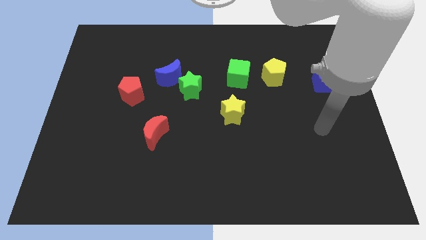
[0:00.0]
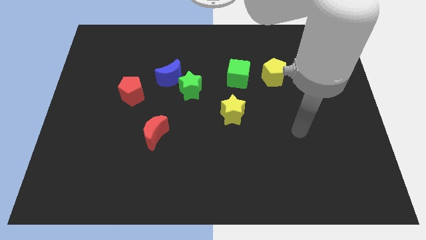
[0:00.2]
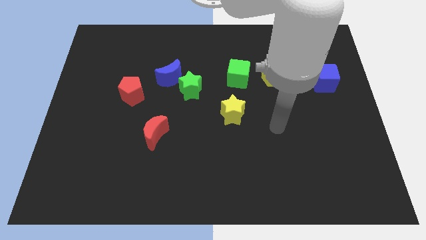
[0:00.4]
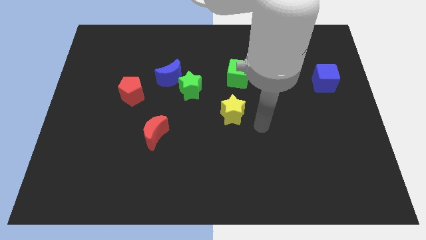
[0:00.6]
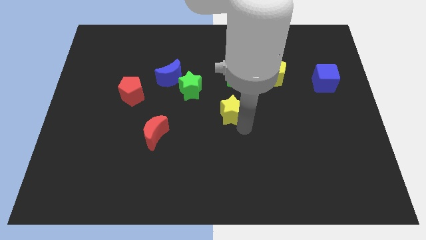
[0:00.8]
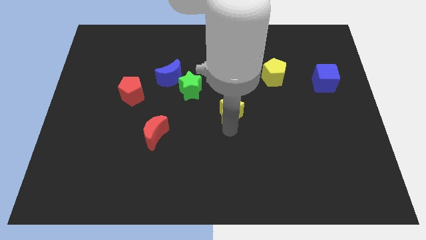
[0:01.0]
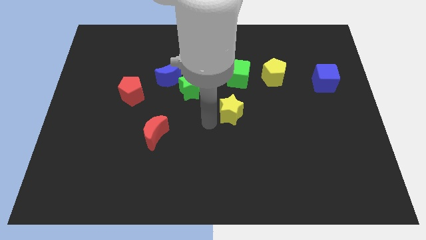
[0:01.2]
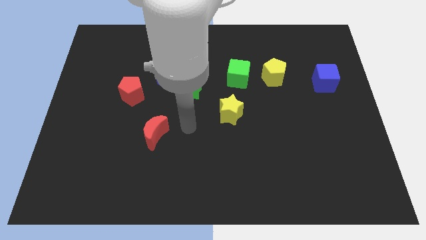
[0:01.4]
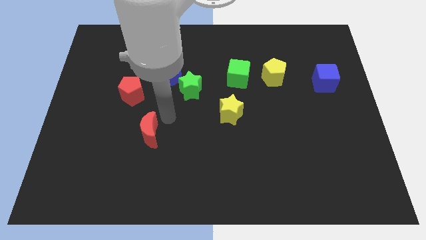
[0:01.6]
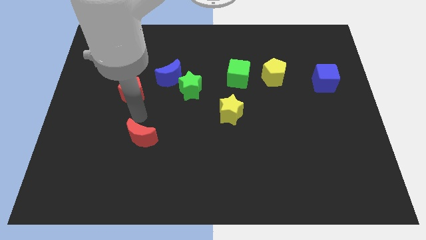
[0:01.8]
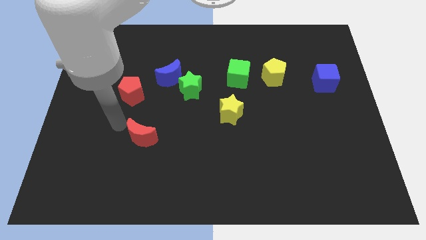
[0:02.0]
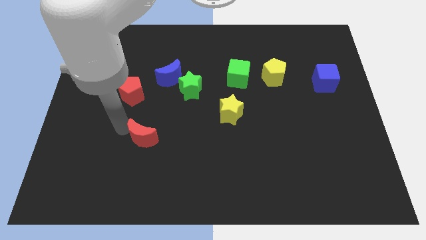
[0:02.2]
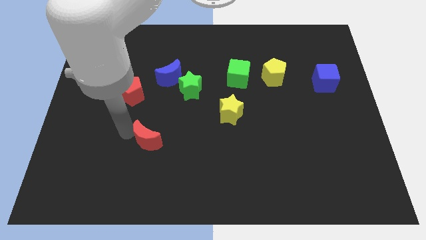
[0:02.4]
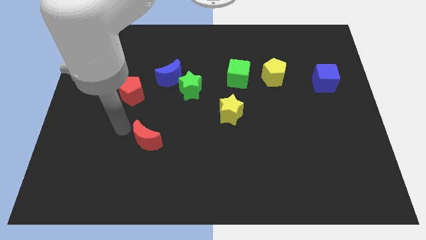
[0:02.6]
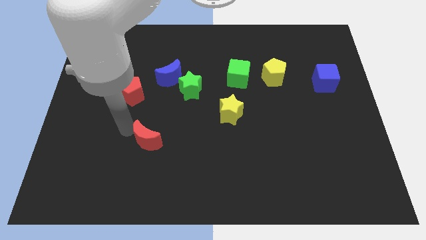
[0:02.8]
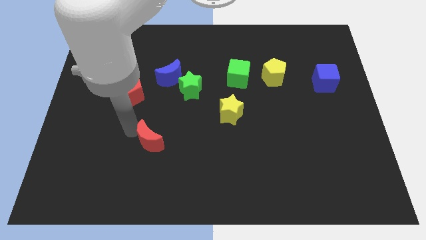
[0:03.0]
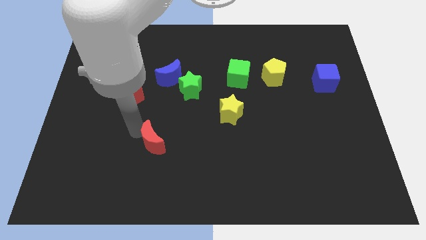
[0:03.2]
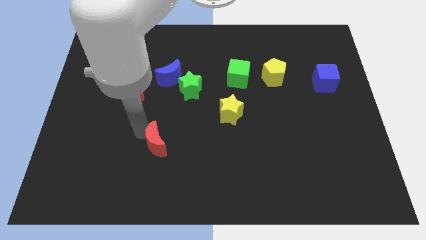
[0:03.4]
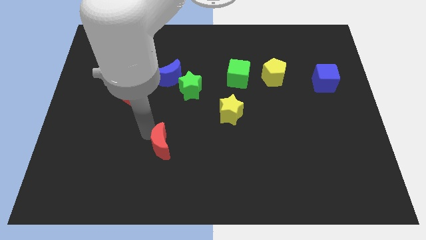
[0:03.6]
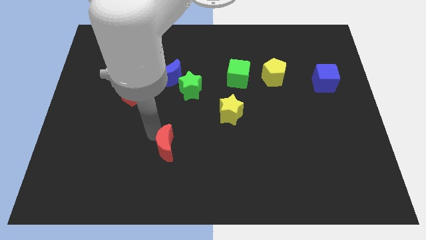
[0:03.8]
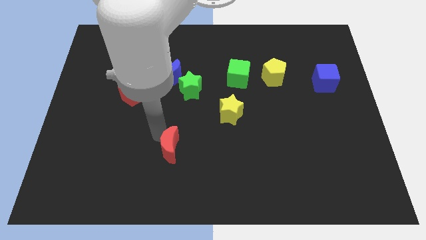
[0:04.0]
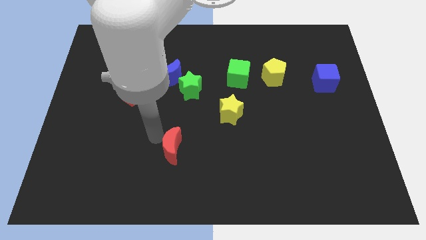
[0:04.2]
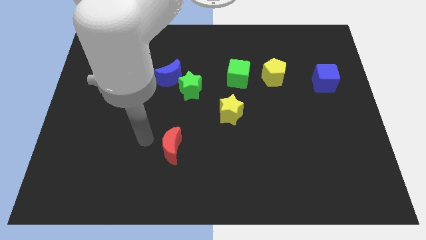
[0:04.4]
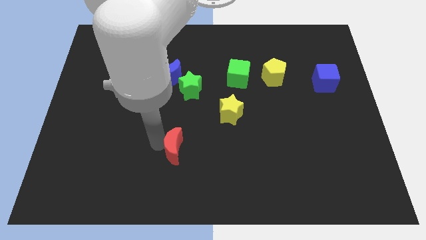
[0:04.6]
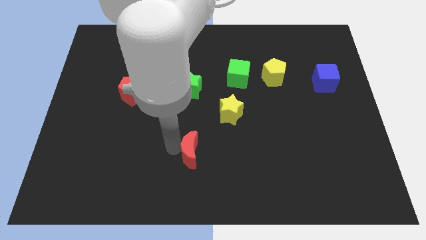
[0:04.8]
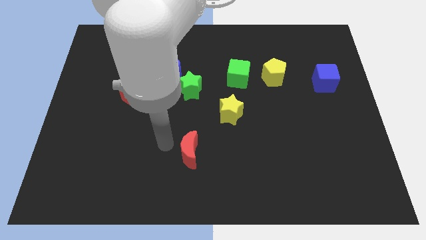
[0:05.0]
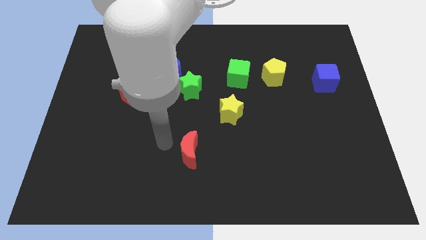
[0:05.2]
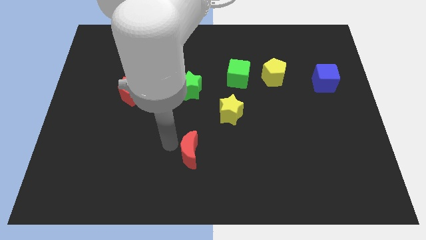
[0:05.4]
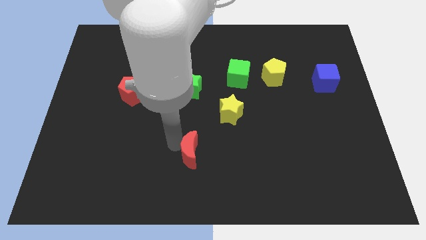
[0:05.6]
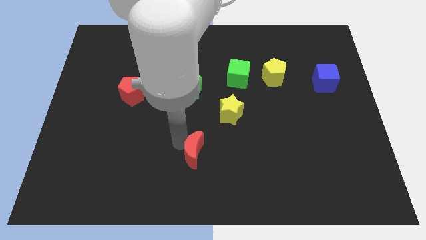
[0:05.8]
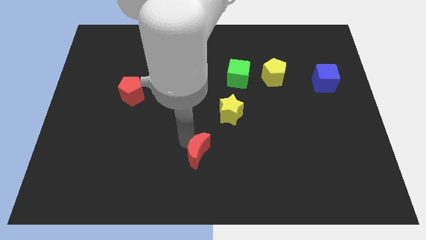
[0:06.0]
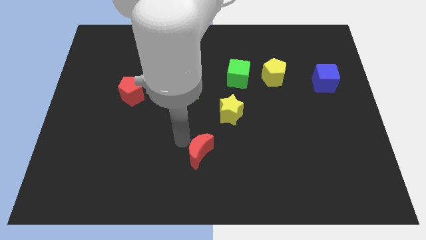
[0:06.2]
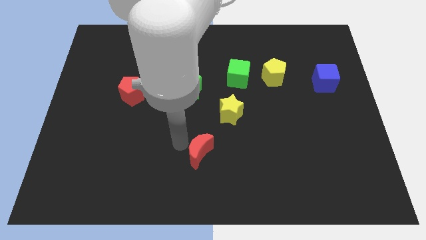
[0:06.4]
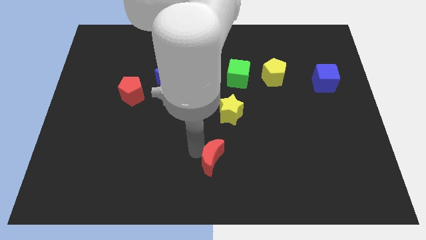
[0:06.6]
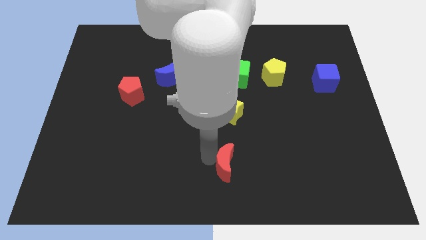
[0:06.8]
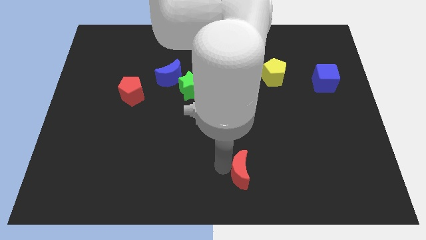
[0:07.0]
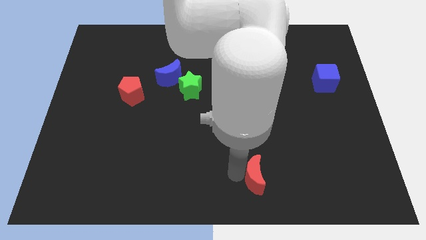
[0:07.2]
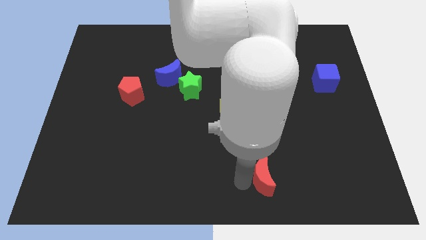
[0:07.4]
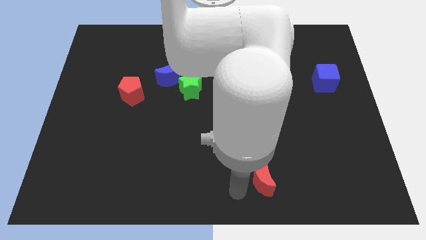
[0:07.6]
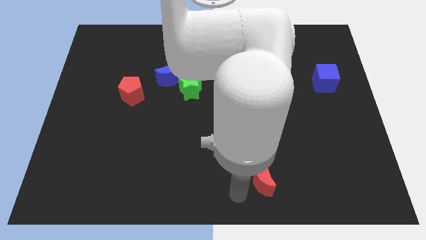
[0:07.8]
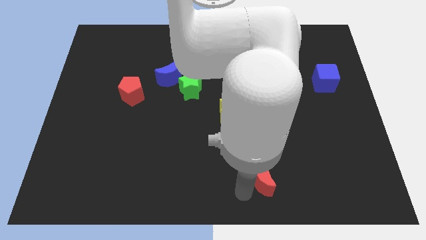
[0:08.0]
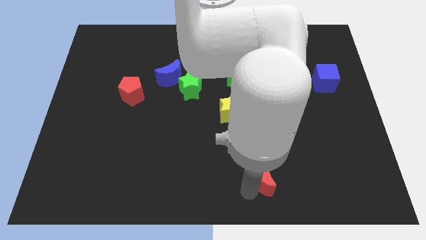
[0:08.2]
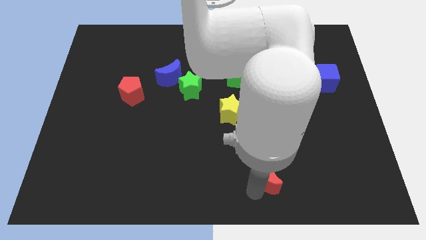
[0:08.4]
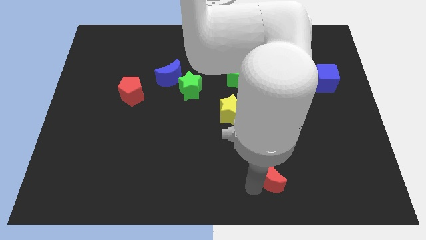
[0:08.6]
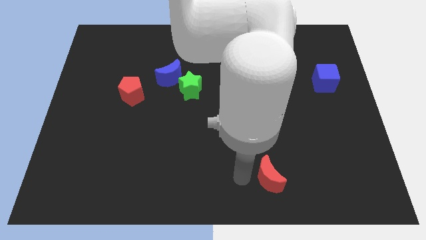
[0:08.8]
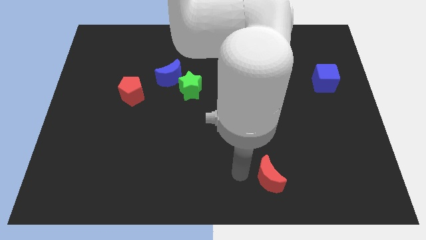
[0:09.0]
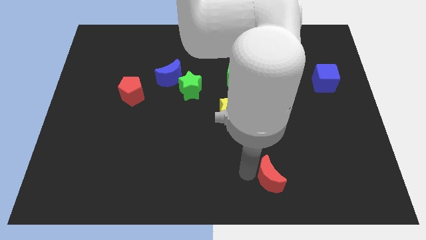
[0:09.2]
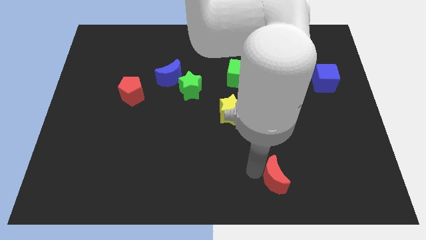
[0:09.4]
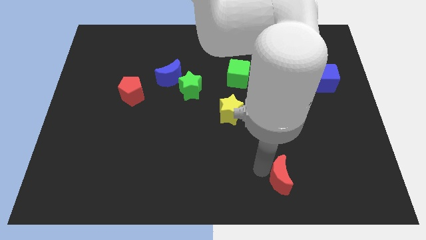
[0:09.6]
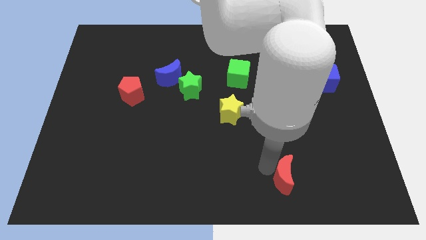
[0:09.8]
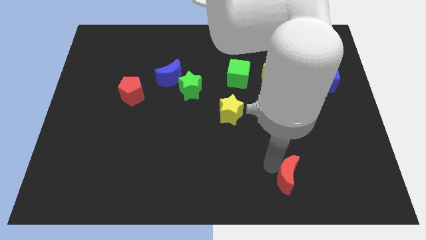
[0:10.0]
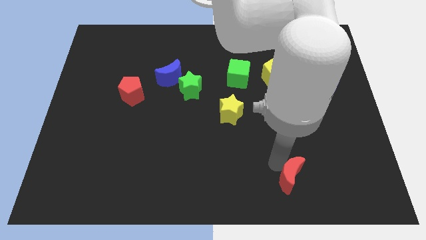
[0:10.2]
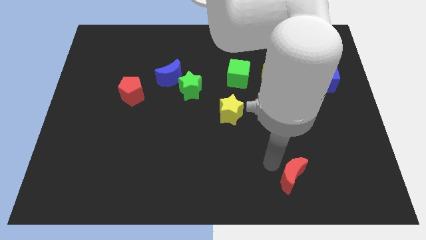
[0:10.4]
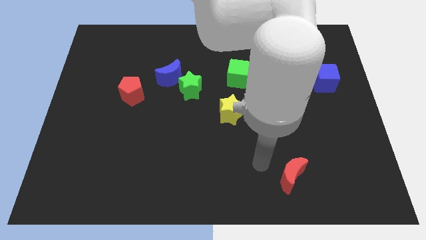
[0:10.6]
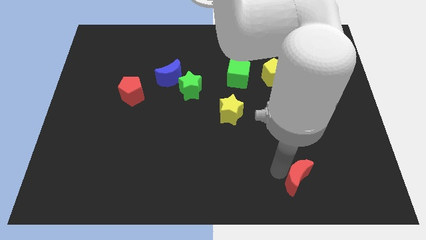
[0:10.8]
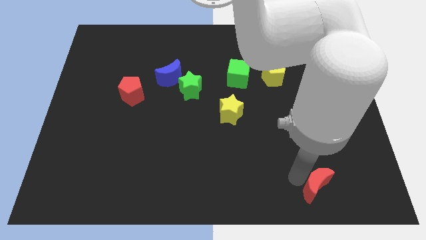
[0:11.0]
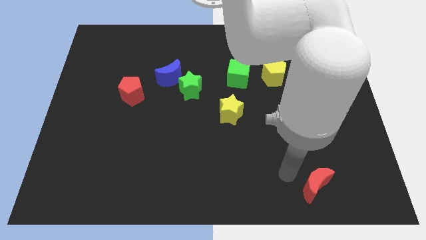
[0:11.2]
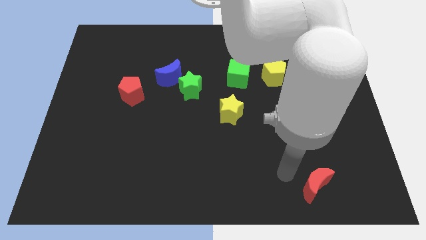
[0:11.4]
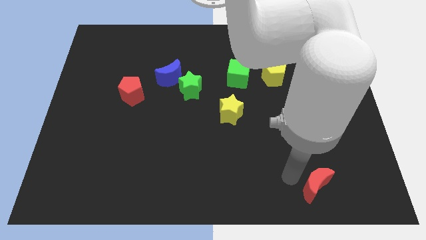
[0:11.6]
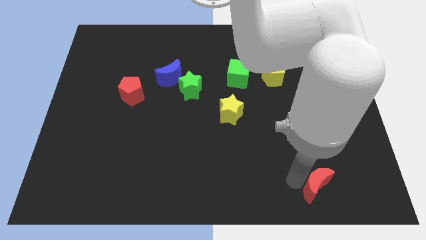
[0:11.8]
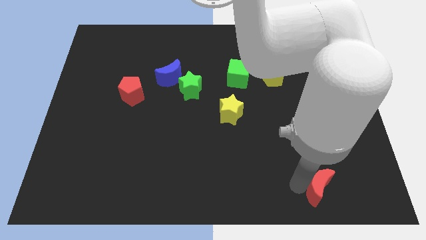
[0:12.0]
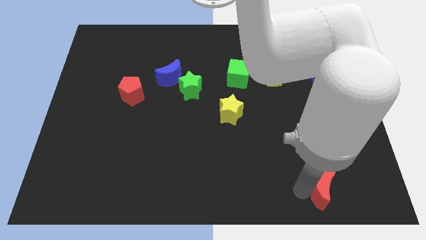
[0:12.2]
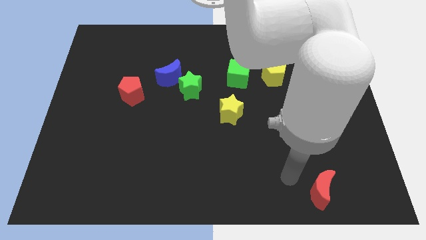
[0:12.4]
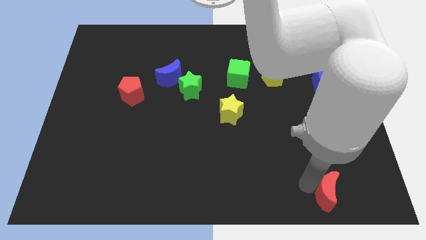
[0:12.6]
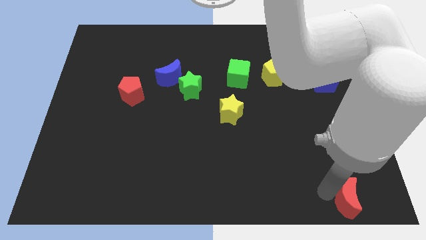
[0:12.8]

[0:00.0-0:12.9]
move the red moon to the bottom right
